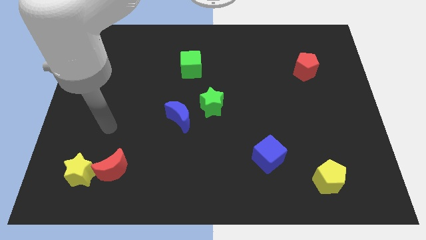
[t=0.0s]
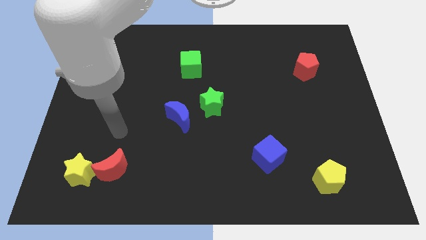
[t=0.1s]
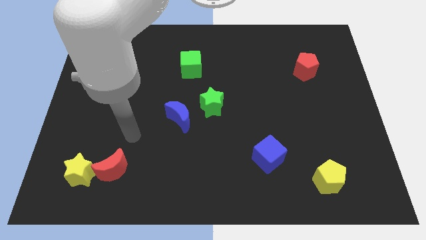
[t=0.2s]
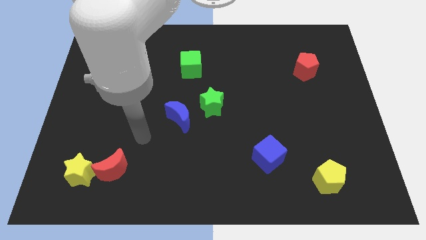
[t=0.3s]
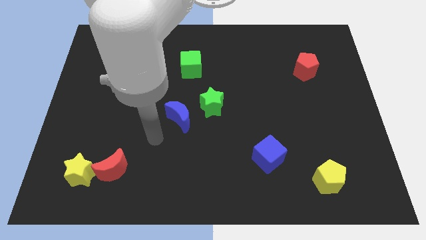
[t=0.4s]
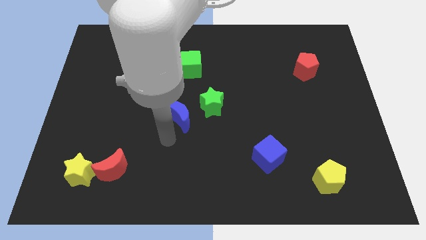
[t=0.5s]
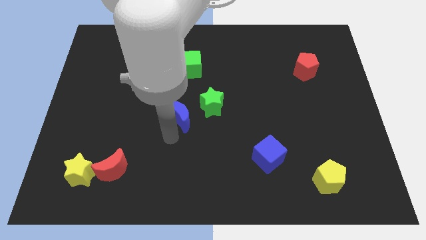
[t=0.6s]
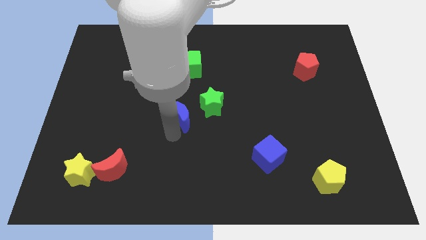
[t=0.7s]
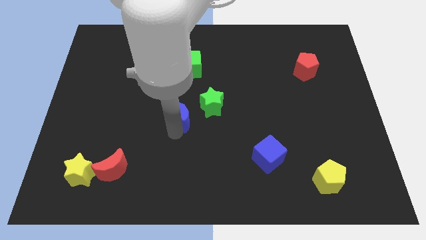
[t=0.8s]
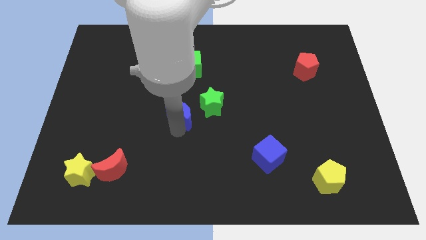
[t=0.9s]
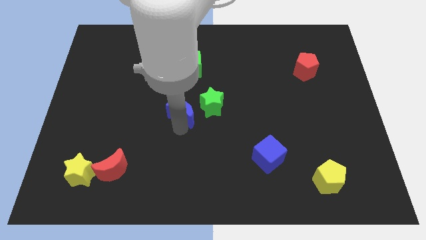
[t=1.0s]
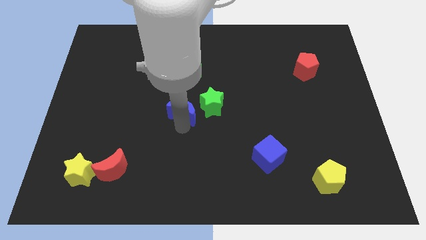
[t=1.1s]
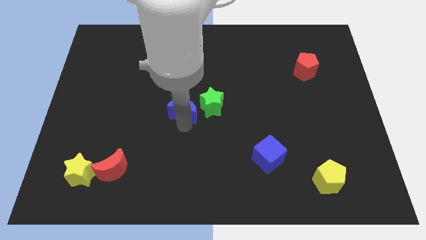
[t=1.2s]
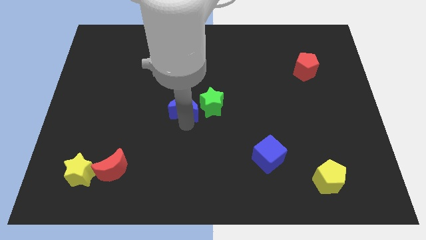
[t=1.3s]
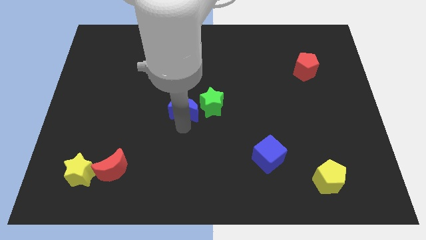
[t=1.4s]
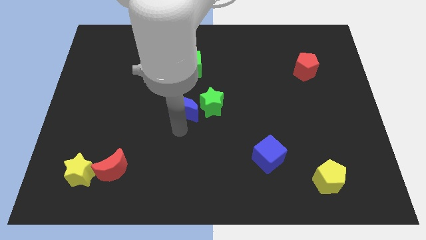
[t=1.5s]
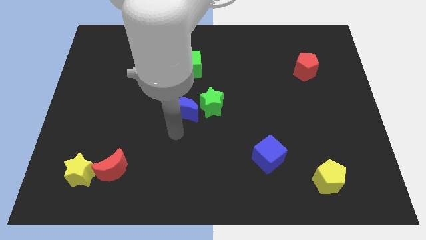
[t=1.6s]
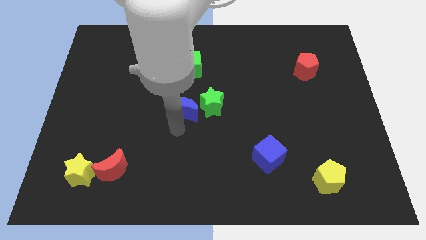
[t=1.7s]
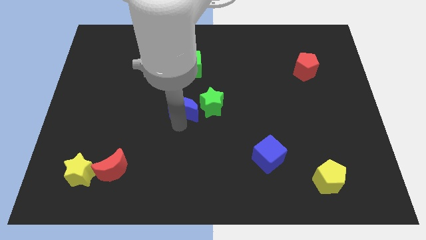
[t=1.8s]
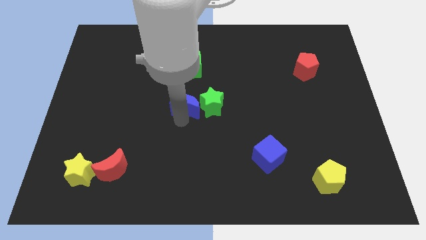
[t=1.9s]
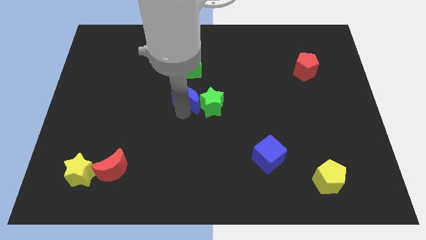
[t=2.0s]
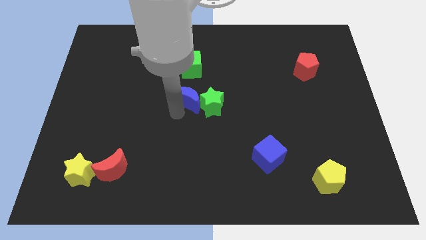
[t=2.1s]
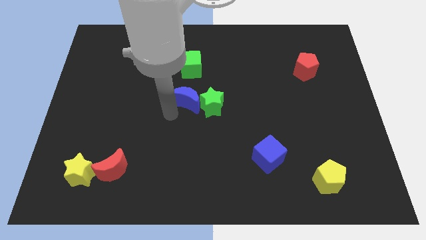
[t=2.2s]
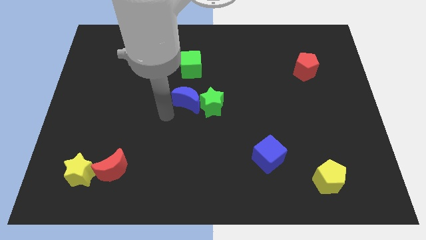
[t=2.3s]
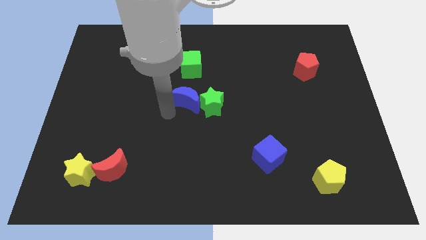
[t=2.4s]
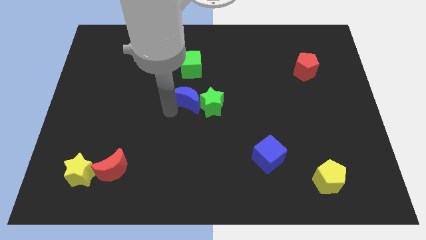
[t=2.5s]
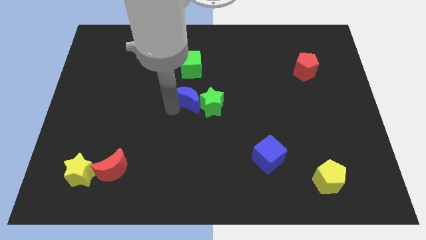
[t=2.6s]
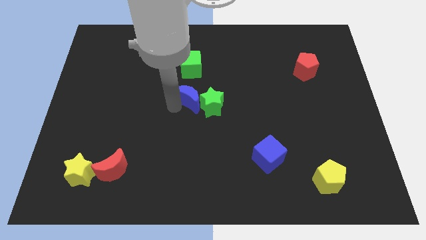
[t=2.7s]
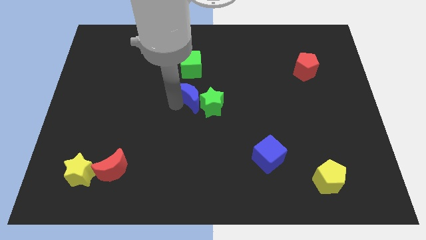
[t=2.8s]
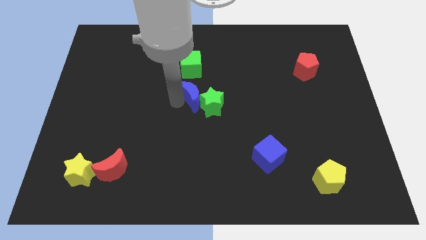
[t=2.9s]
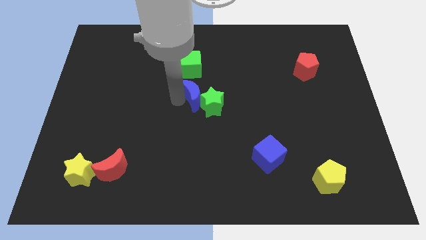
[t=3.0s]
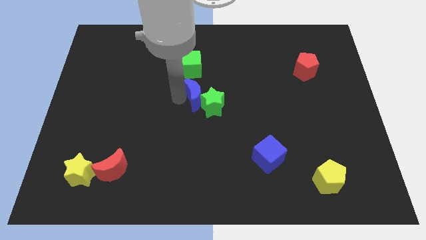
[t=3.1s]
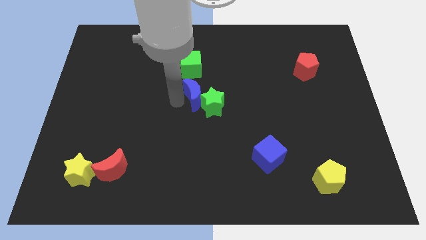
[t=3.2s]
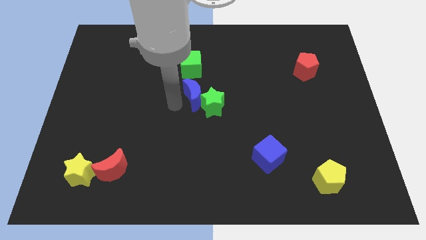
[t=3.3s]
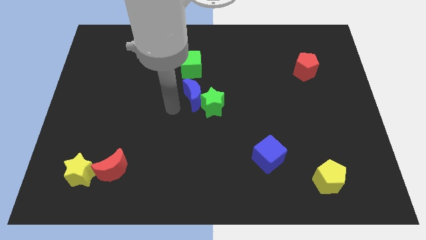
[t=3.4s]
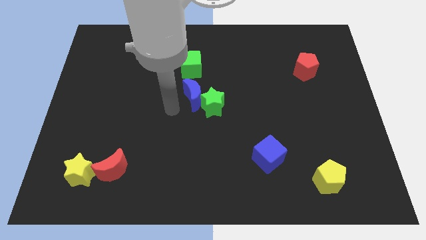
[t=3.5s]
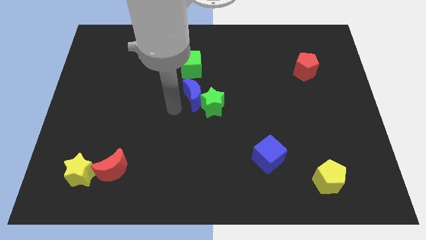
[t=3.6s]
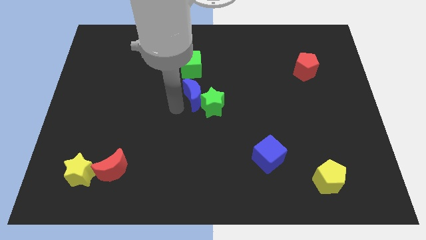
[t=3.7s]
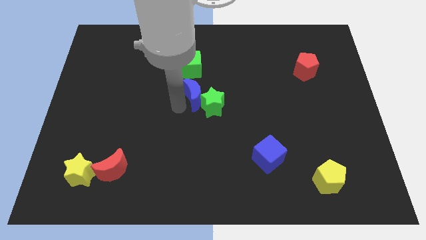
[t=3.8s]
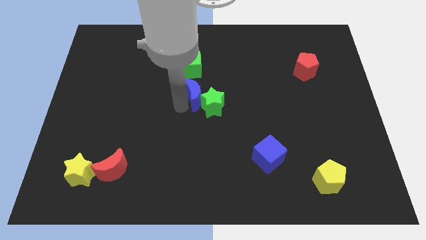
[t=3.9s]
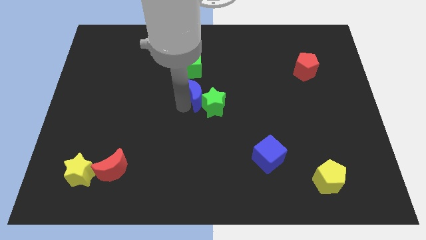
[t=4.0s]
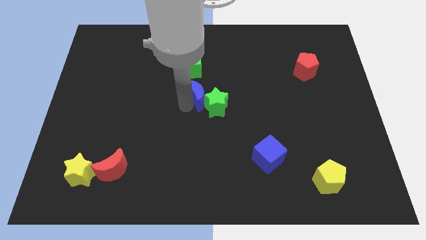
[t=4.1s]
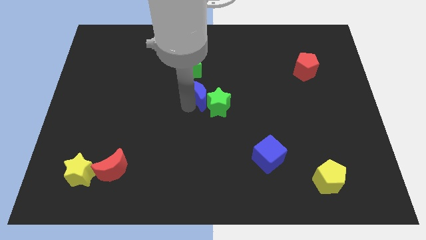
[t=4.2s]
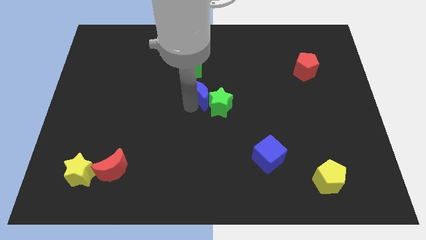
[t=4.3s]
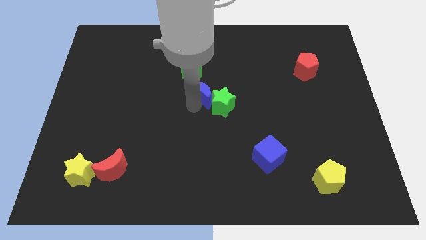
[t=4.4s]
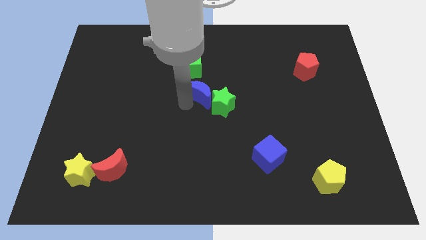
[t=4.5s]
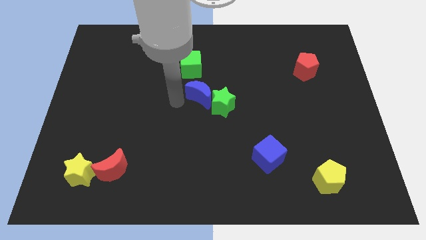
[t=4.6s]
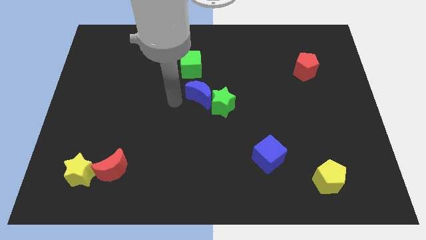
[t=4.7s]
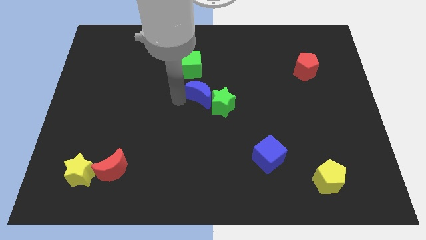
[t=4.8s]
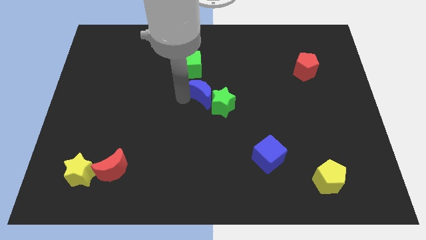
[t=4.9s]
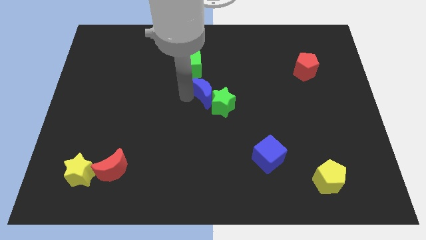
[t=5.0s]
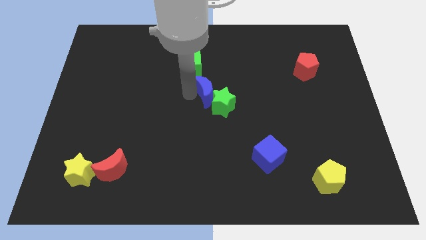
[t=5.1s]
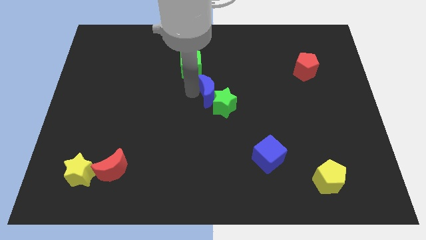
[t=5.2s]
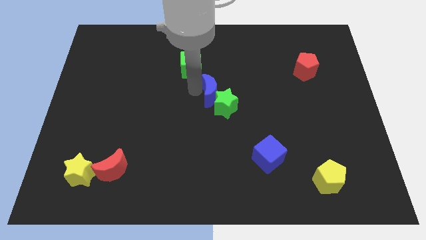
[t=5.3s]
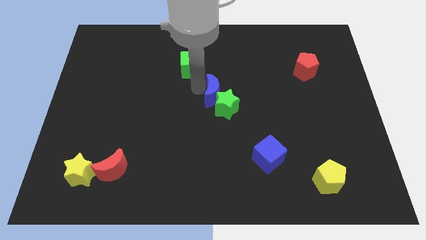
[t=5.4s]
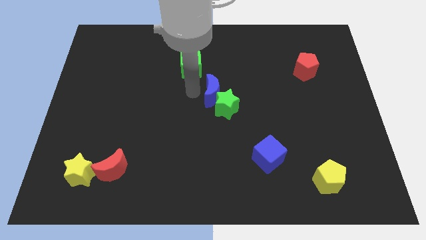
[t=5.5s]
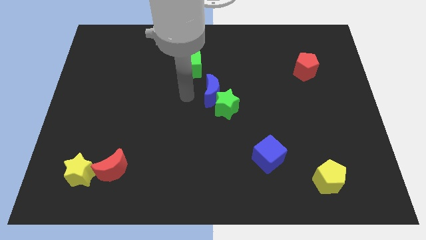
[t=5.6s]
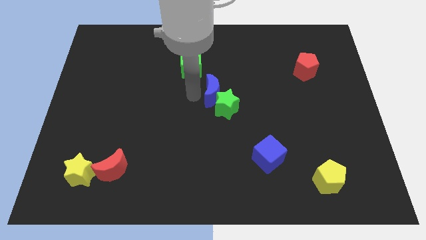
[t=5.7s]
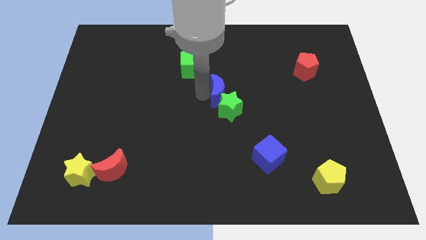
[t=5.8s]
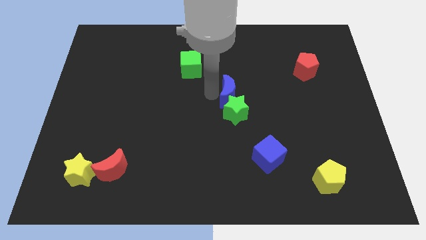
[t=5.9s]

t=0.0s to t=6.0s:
slide the blue moon diagonally up and to the right of the green star

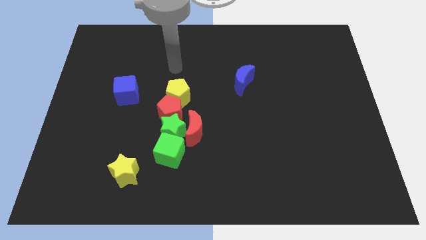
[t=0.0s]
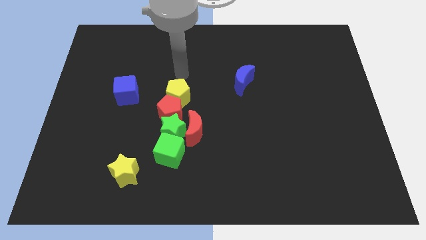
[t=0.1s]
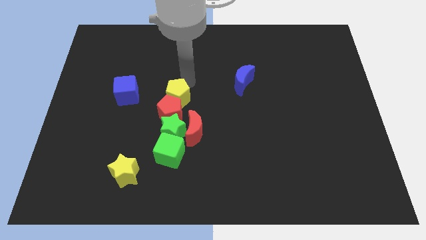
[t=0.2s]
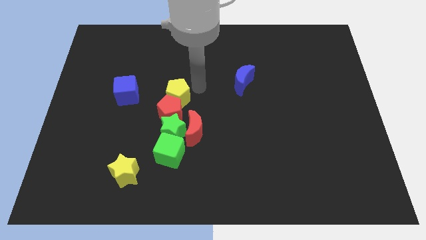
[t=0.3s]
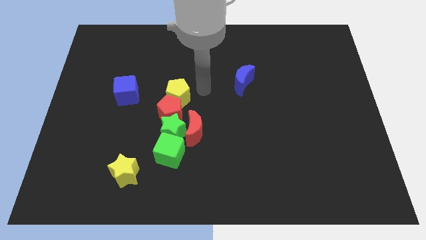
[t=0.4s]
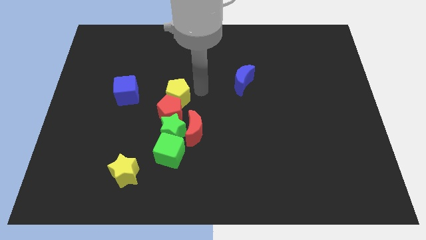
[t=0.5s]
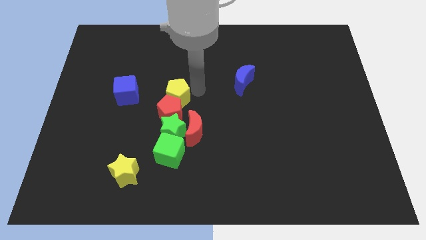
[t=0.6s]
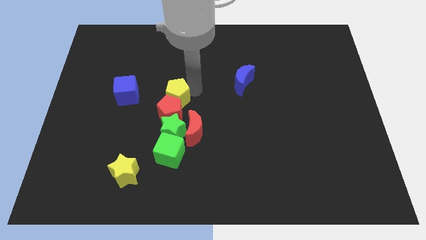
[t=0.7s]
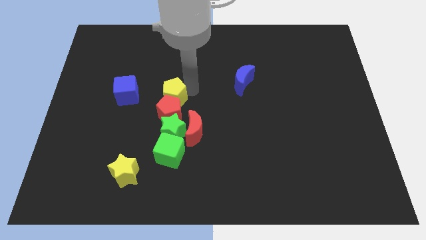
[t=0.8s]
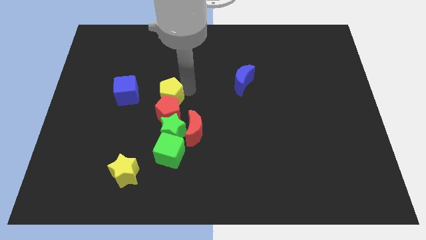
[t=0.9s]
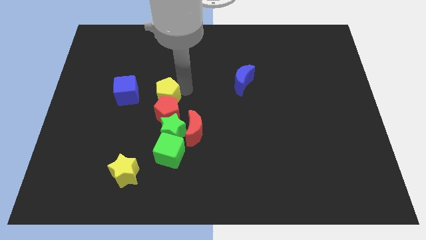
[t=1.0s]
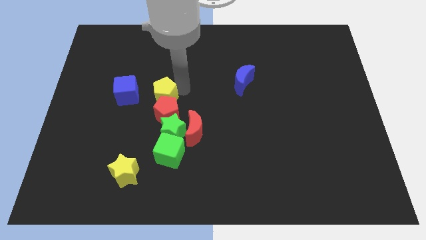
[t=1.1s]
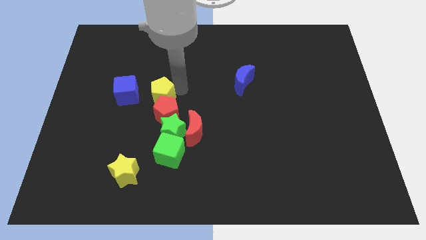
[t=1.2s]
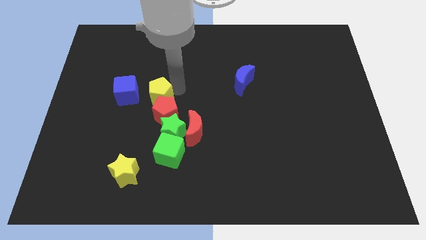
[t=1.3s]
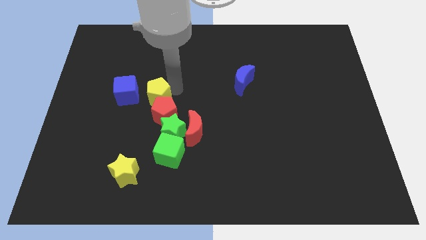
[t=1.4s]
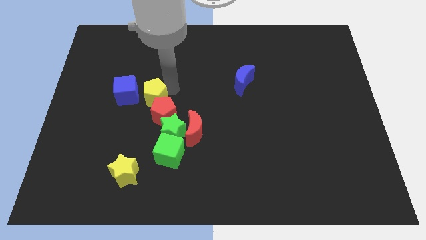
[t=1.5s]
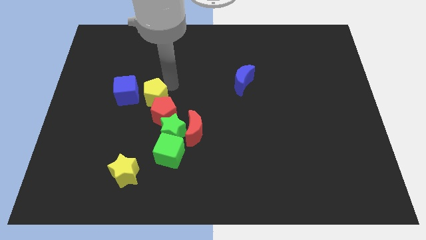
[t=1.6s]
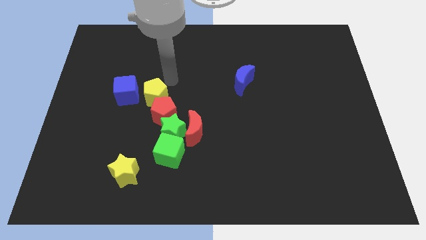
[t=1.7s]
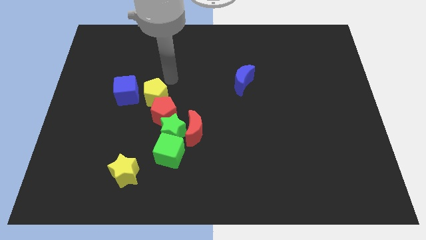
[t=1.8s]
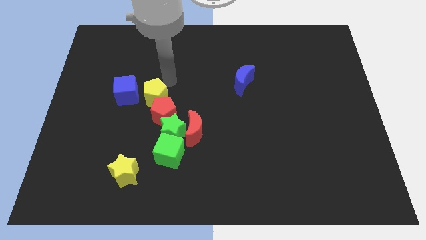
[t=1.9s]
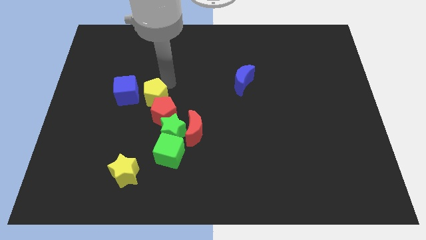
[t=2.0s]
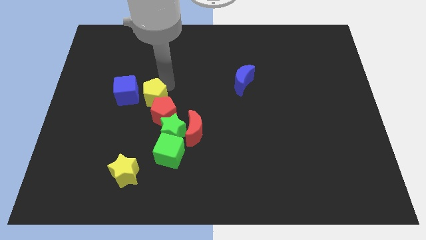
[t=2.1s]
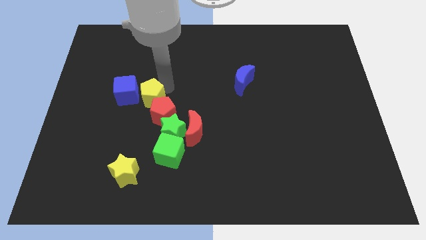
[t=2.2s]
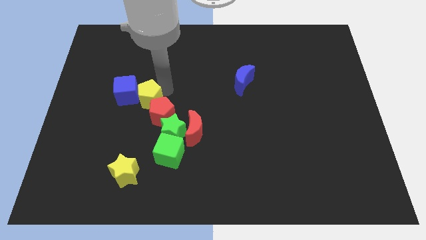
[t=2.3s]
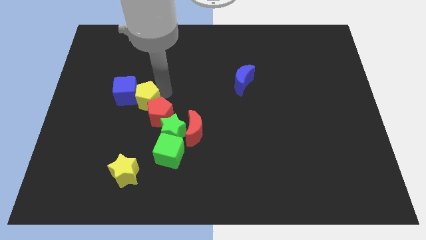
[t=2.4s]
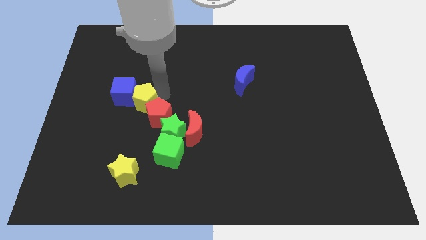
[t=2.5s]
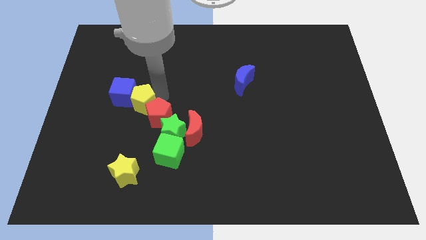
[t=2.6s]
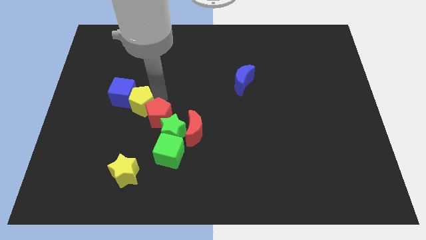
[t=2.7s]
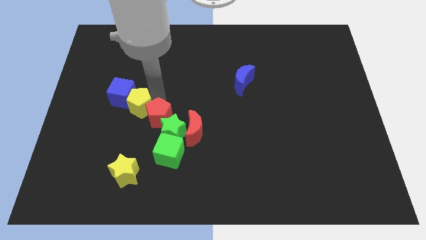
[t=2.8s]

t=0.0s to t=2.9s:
push the yellow pentagon to the bottom side of the blue cube
